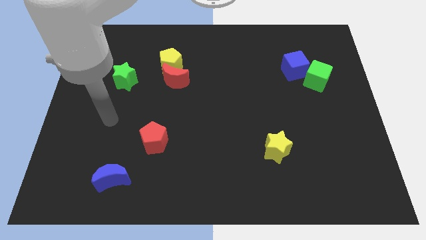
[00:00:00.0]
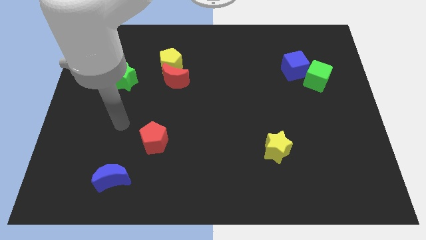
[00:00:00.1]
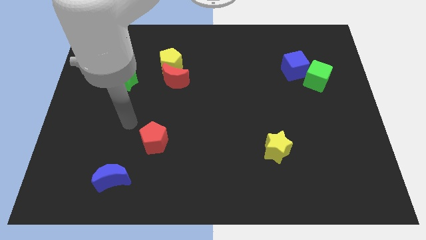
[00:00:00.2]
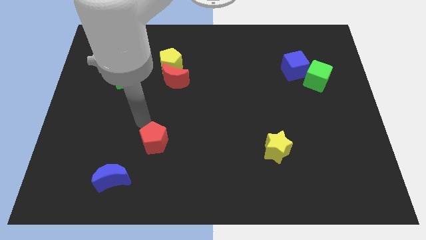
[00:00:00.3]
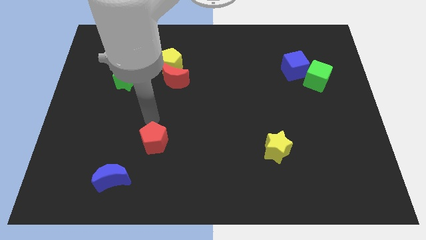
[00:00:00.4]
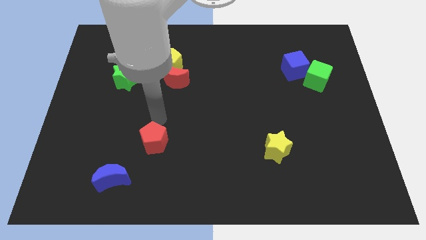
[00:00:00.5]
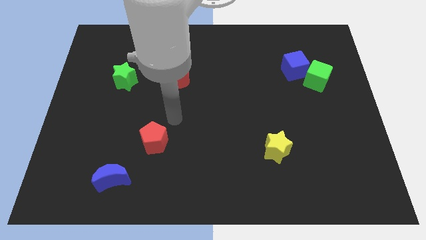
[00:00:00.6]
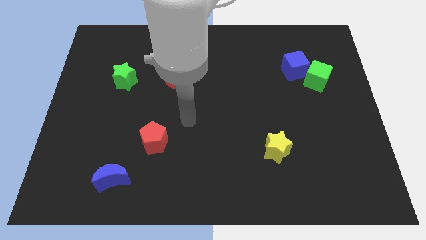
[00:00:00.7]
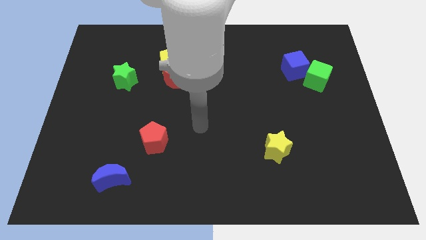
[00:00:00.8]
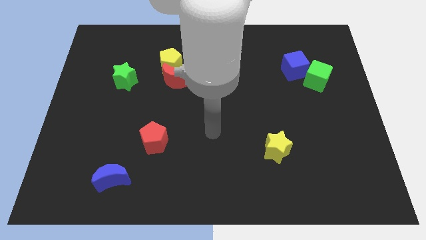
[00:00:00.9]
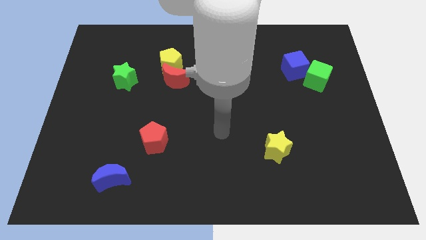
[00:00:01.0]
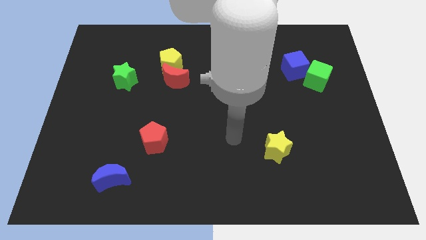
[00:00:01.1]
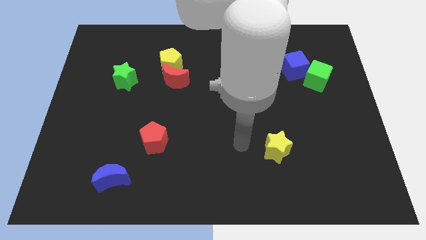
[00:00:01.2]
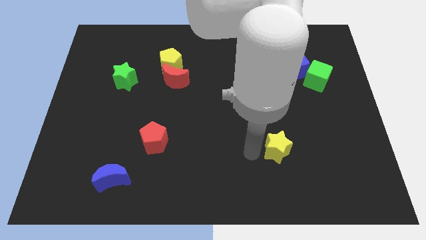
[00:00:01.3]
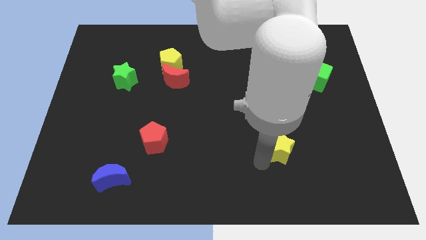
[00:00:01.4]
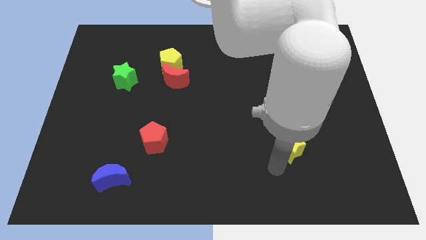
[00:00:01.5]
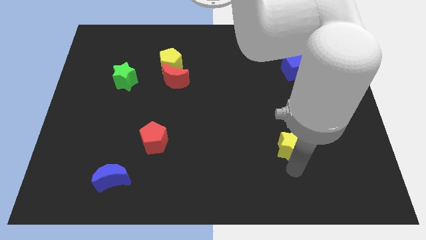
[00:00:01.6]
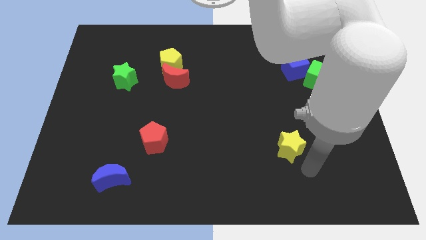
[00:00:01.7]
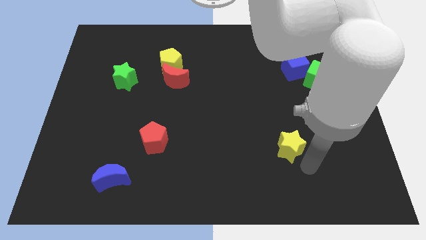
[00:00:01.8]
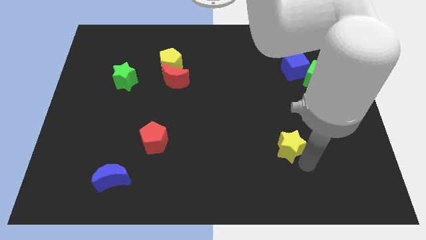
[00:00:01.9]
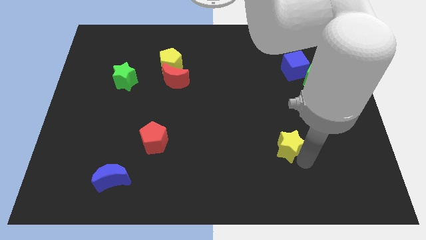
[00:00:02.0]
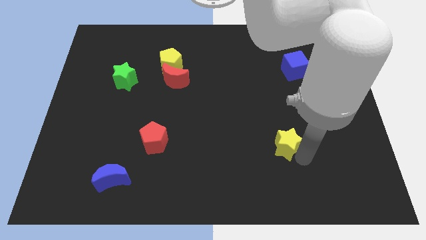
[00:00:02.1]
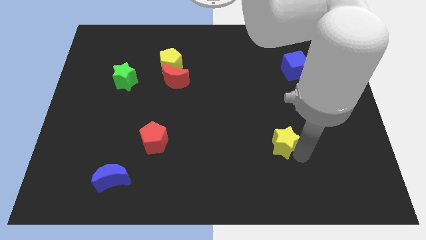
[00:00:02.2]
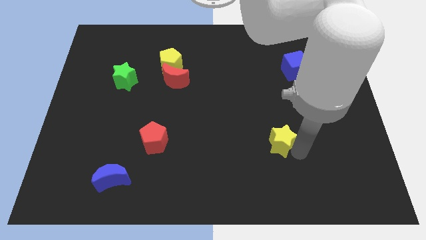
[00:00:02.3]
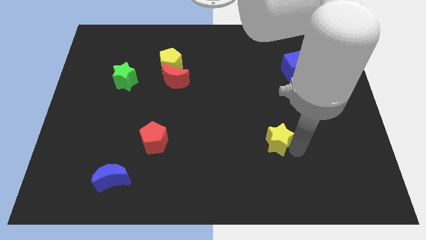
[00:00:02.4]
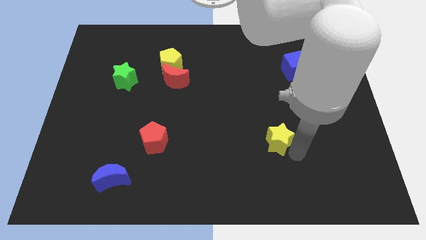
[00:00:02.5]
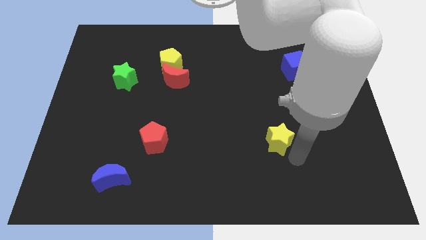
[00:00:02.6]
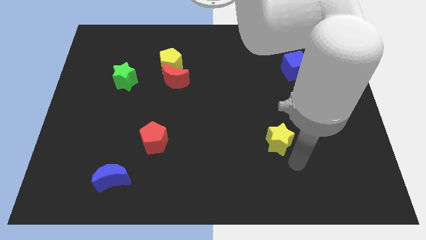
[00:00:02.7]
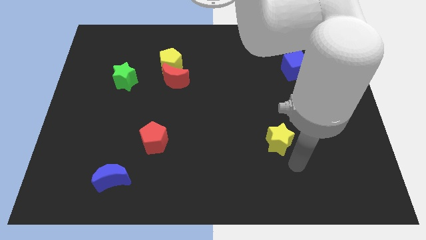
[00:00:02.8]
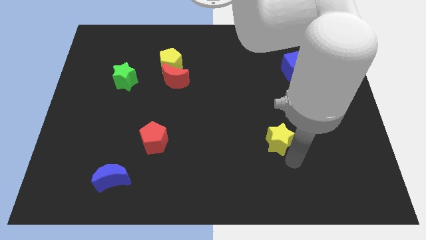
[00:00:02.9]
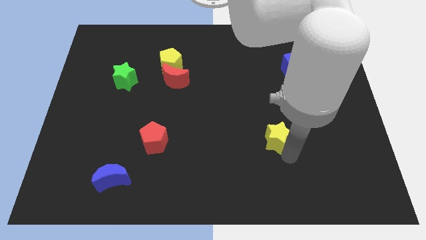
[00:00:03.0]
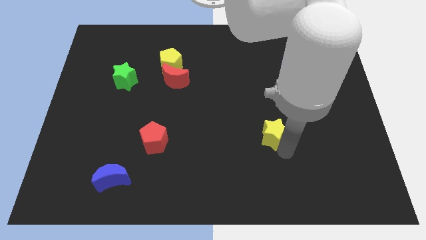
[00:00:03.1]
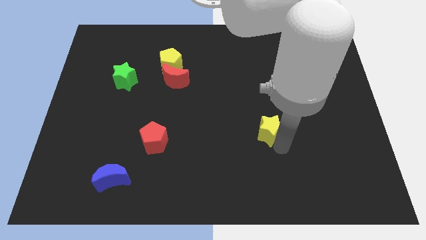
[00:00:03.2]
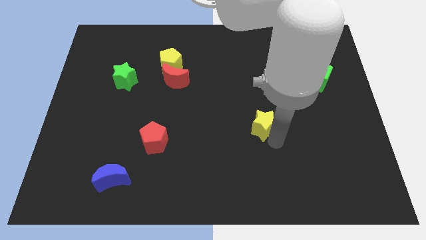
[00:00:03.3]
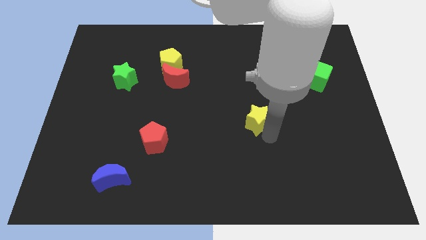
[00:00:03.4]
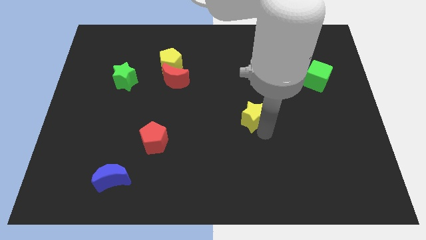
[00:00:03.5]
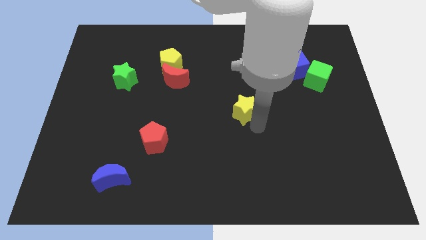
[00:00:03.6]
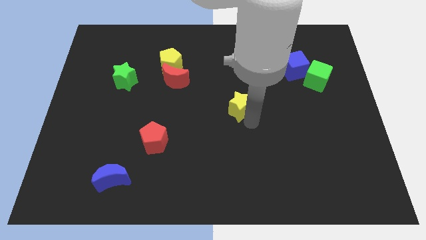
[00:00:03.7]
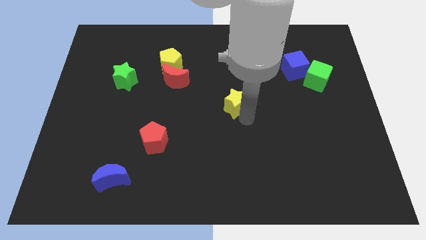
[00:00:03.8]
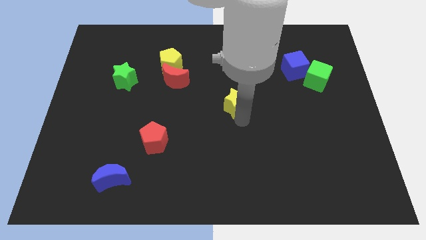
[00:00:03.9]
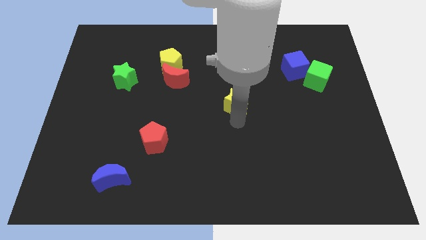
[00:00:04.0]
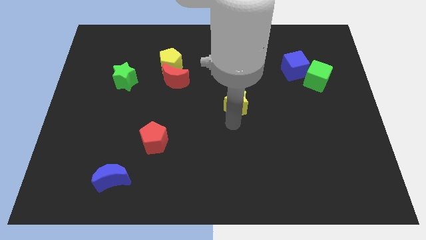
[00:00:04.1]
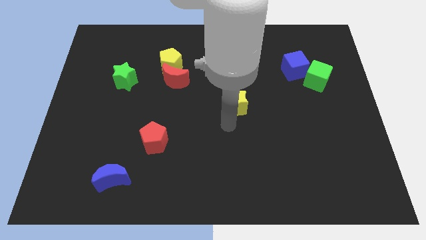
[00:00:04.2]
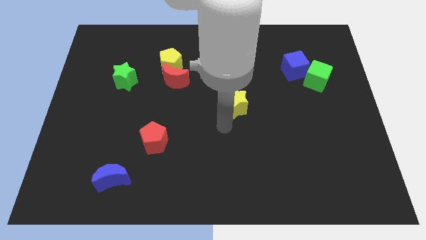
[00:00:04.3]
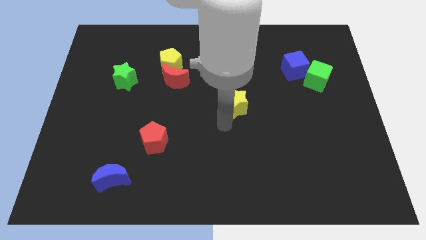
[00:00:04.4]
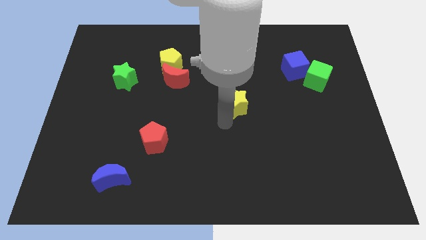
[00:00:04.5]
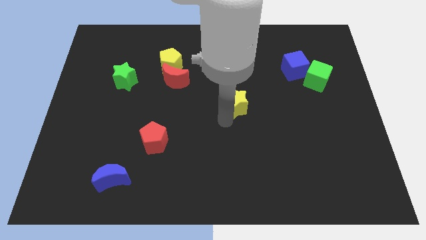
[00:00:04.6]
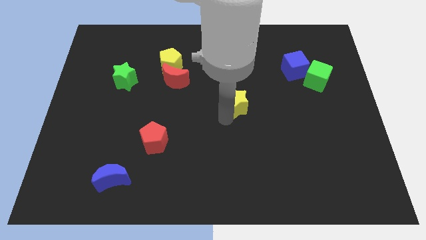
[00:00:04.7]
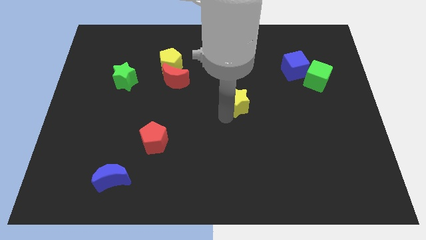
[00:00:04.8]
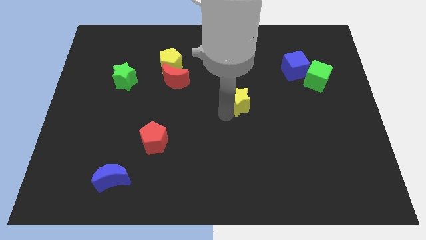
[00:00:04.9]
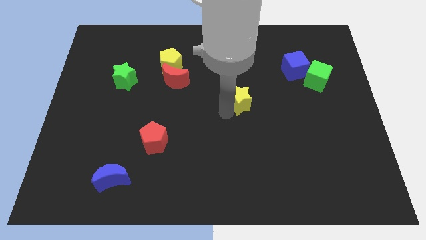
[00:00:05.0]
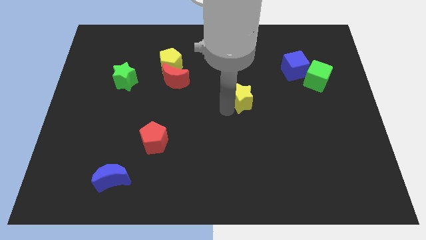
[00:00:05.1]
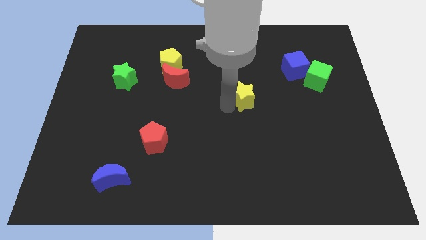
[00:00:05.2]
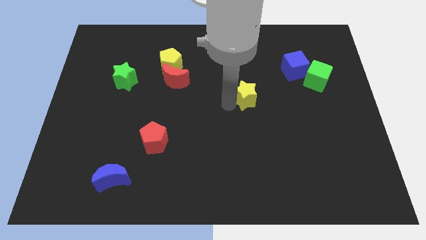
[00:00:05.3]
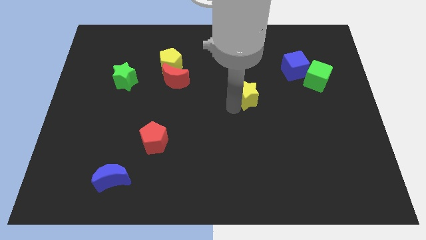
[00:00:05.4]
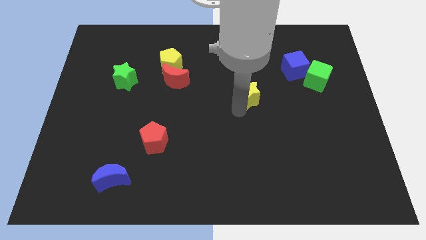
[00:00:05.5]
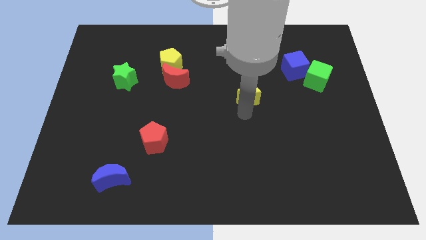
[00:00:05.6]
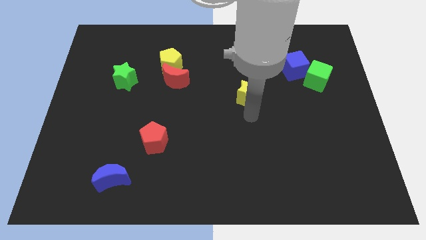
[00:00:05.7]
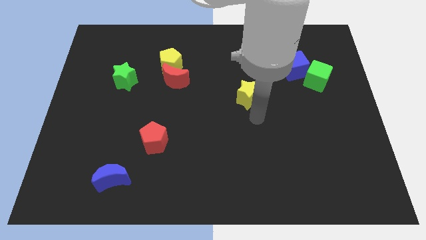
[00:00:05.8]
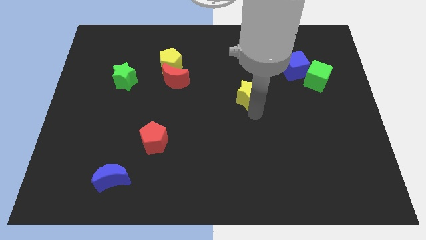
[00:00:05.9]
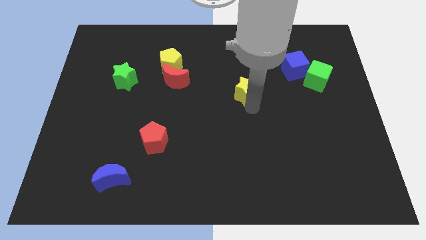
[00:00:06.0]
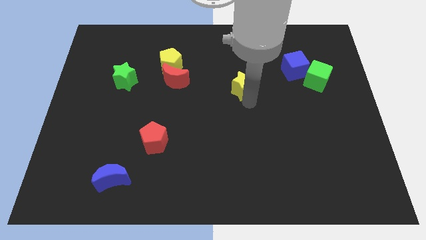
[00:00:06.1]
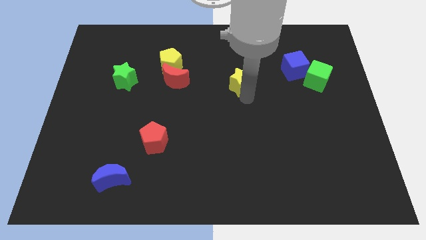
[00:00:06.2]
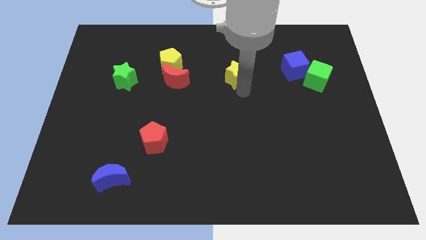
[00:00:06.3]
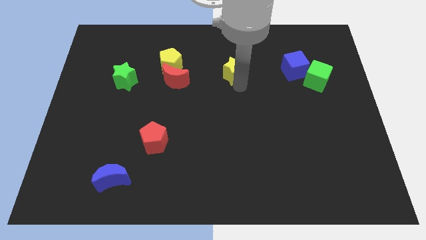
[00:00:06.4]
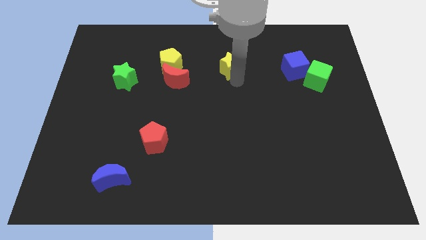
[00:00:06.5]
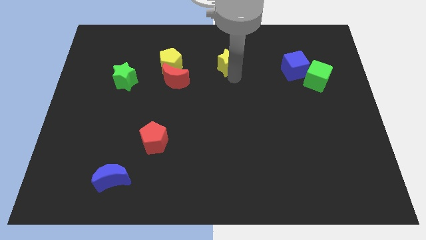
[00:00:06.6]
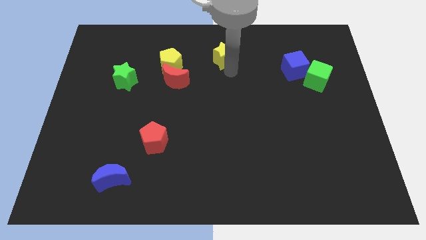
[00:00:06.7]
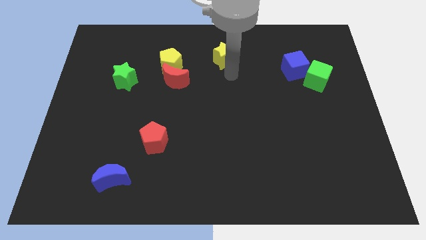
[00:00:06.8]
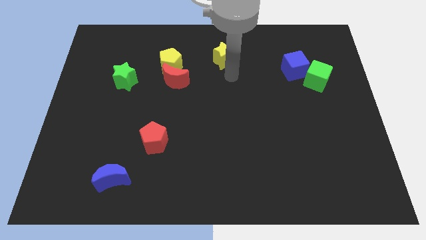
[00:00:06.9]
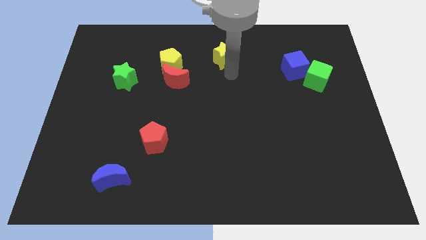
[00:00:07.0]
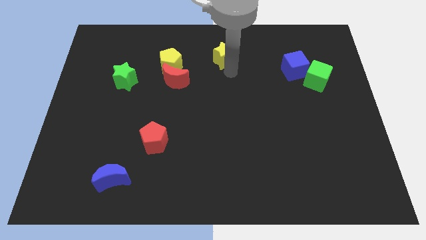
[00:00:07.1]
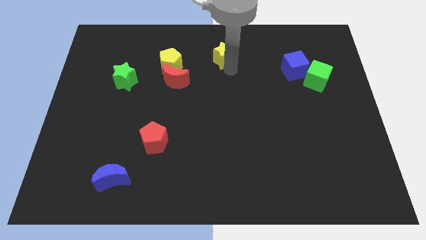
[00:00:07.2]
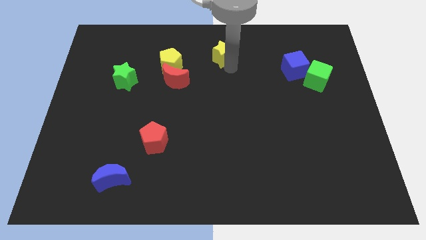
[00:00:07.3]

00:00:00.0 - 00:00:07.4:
slide the yellow star to the top
